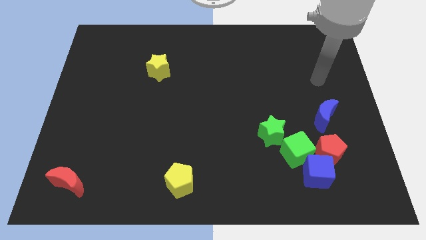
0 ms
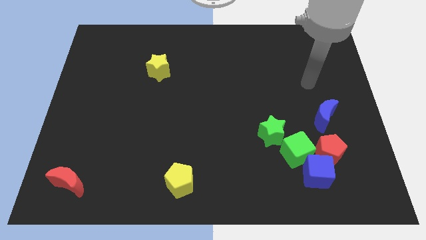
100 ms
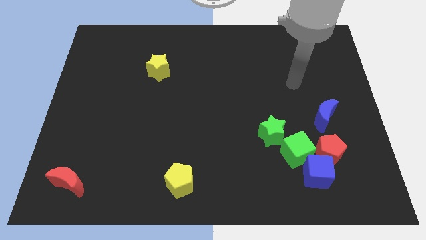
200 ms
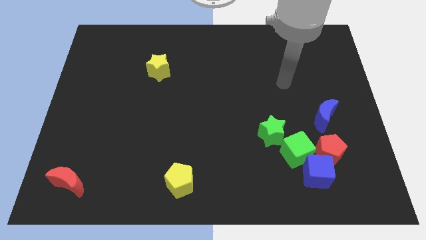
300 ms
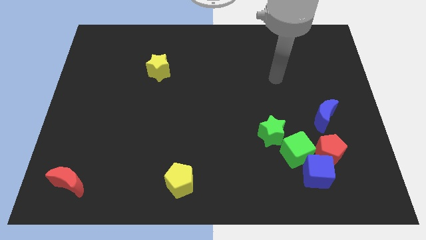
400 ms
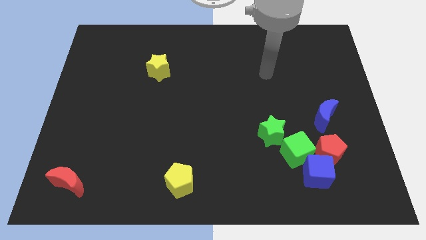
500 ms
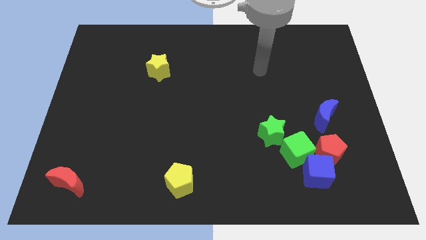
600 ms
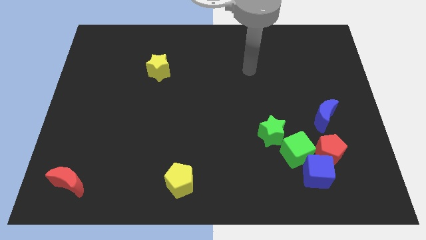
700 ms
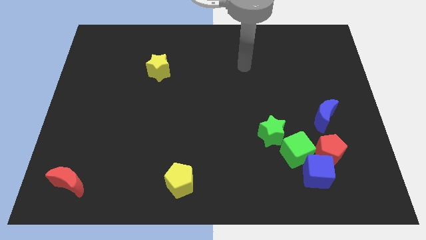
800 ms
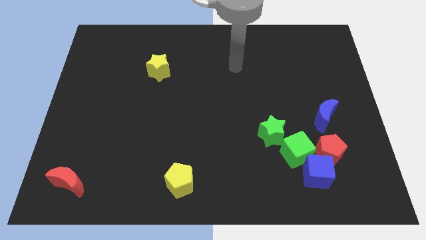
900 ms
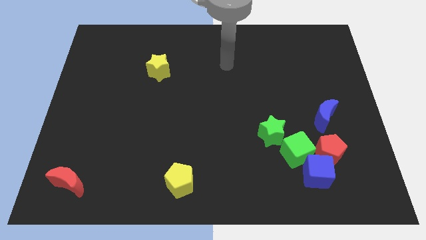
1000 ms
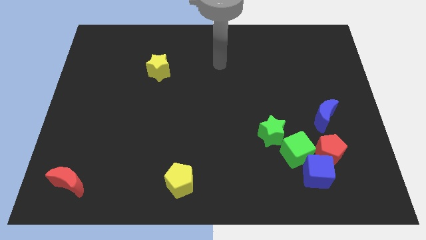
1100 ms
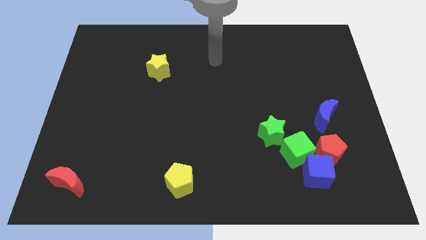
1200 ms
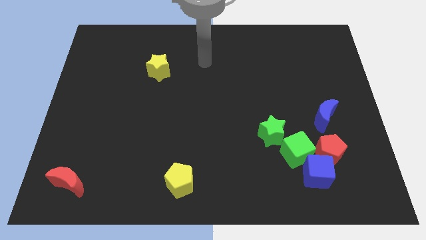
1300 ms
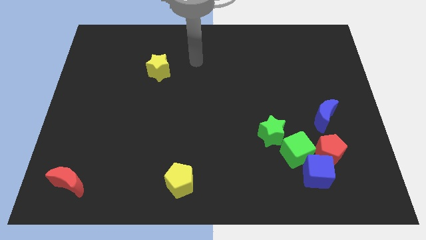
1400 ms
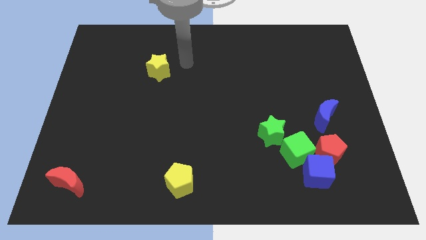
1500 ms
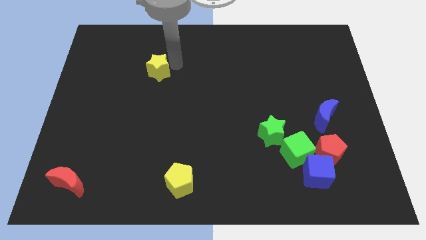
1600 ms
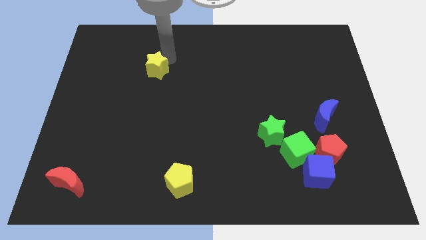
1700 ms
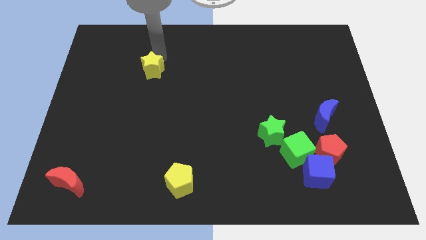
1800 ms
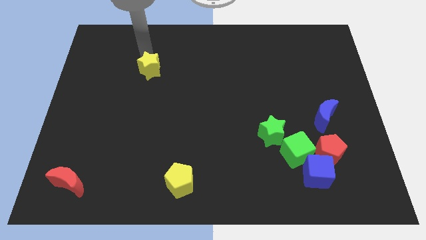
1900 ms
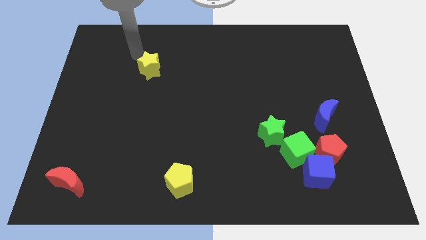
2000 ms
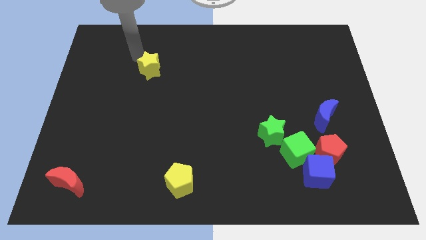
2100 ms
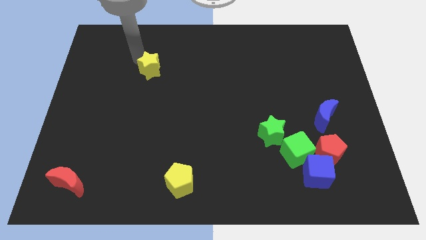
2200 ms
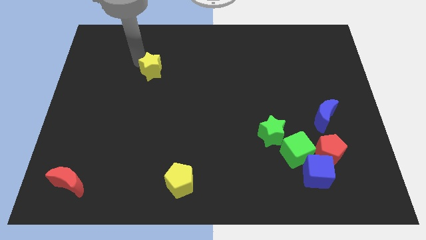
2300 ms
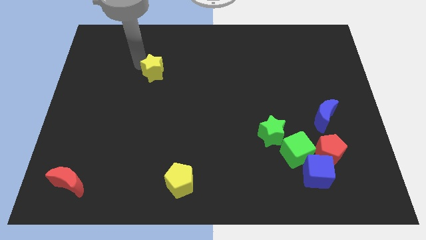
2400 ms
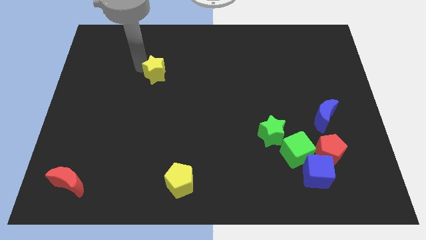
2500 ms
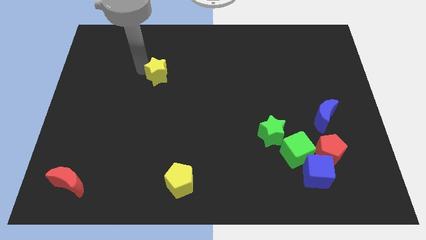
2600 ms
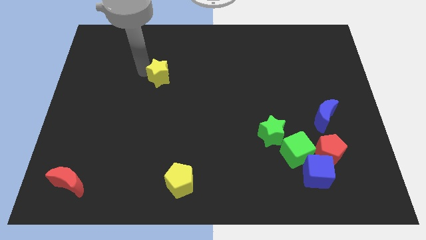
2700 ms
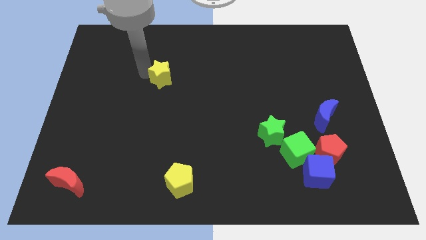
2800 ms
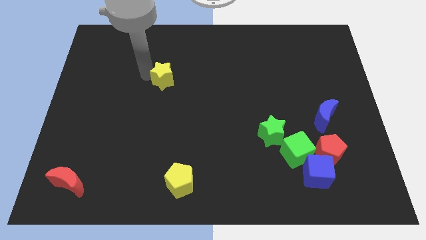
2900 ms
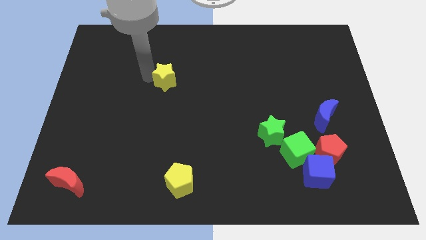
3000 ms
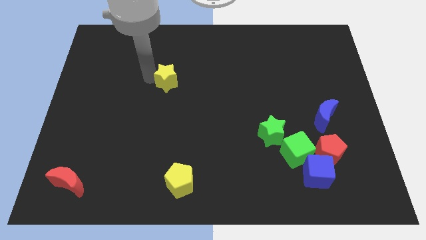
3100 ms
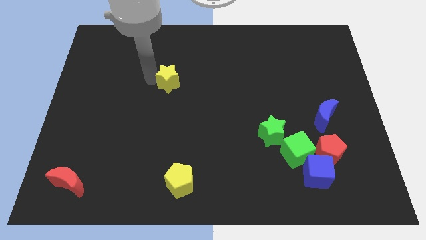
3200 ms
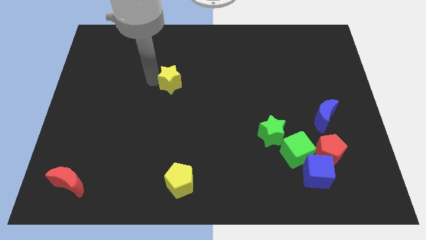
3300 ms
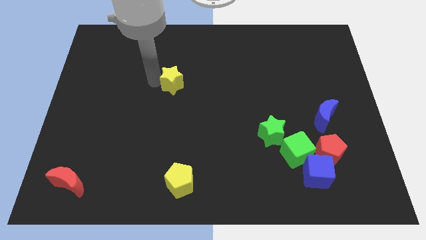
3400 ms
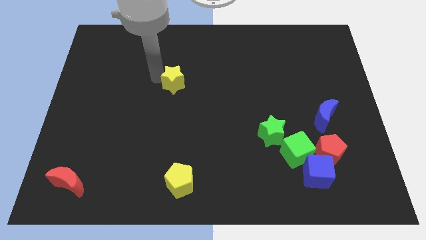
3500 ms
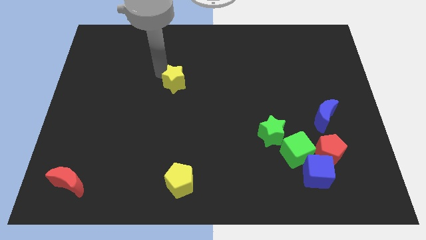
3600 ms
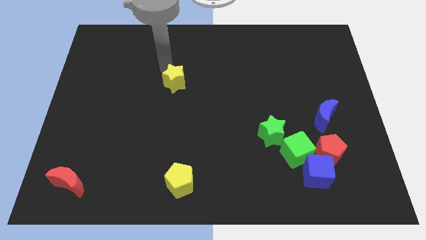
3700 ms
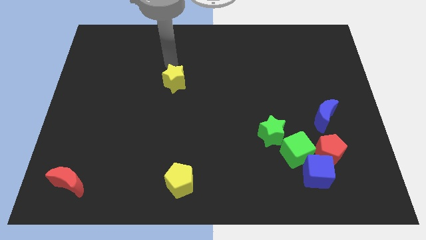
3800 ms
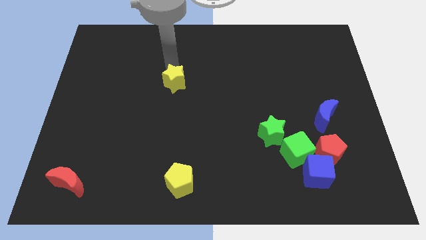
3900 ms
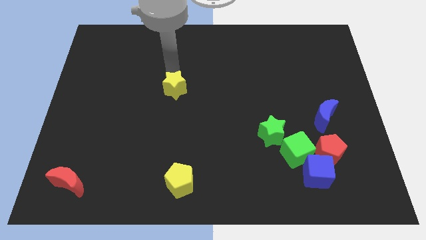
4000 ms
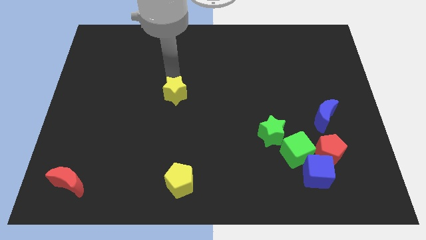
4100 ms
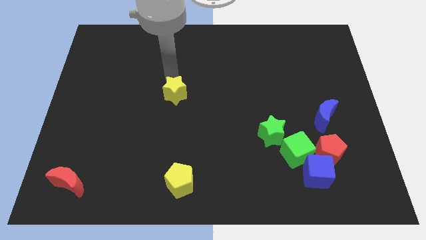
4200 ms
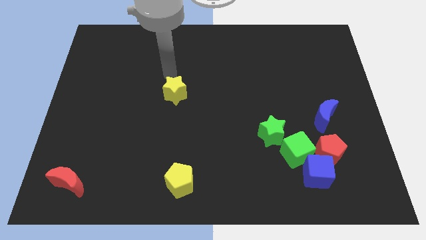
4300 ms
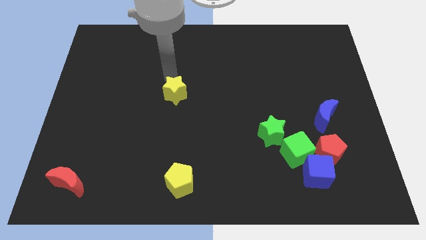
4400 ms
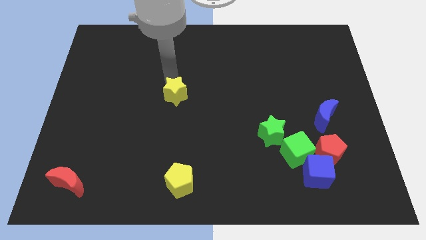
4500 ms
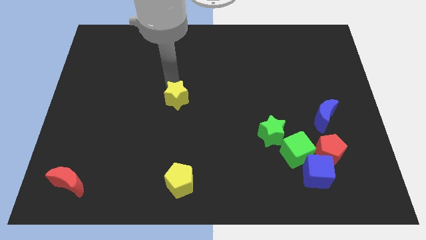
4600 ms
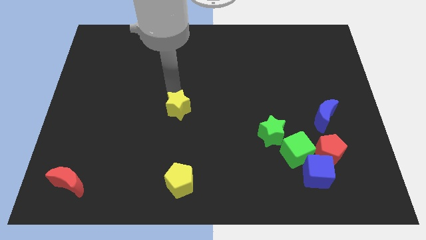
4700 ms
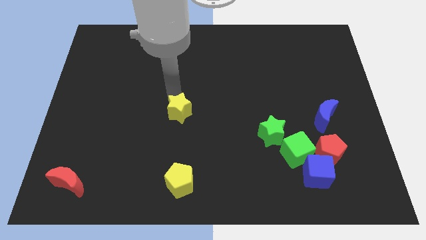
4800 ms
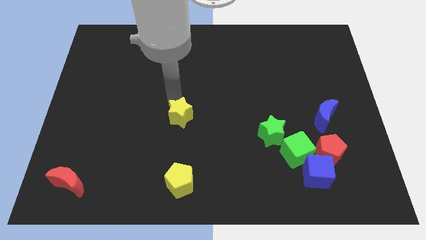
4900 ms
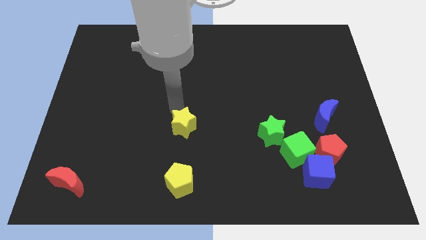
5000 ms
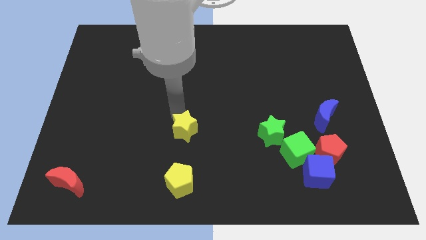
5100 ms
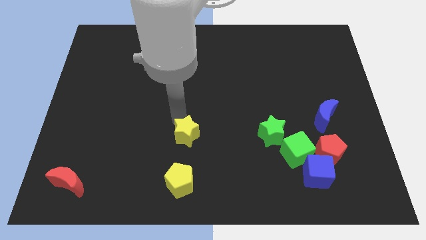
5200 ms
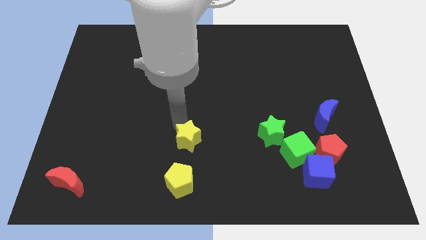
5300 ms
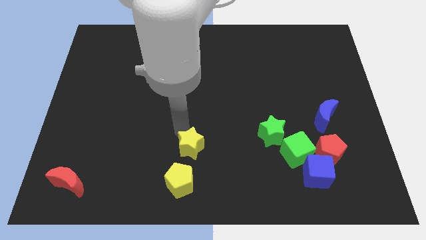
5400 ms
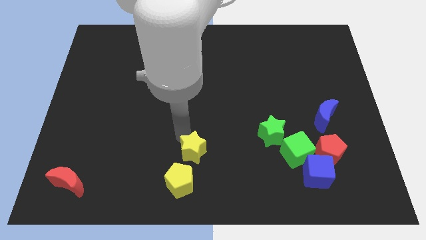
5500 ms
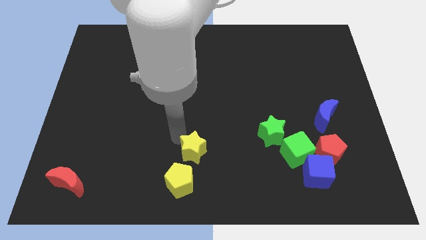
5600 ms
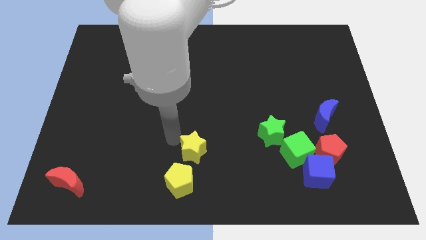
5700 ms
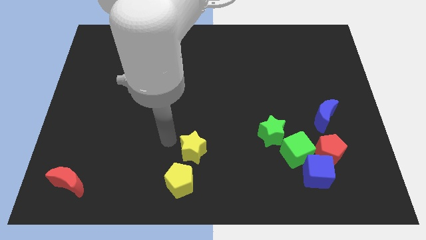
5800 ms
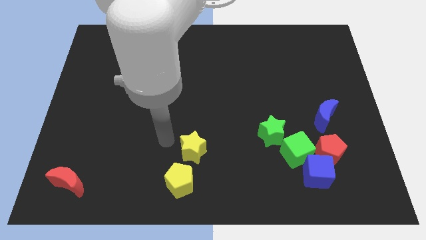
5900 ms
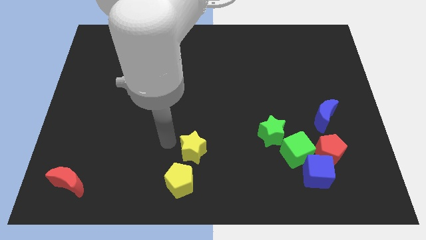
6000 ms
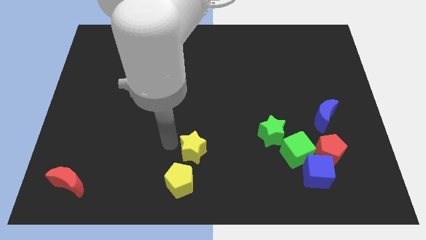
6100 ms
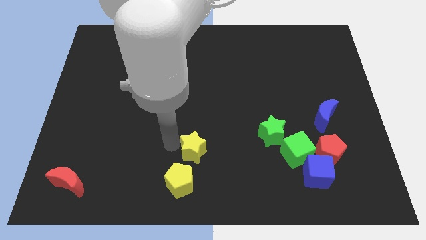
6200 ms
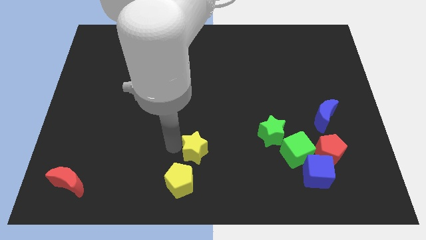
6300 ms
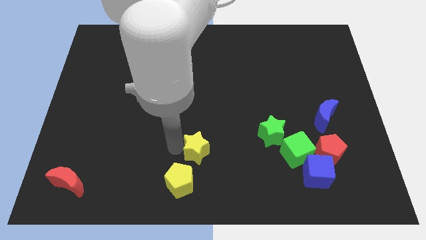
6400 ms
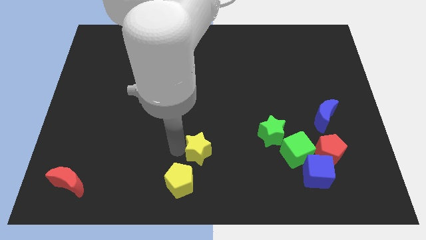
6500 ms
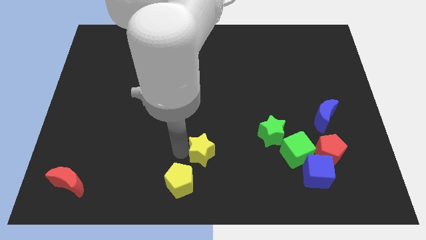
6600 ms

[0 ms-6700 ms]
put the yellow star to the bottom side

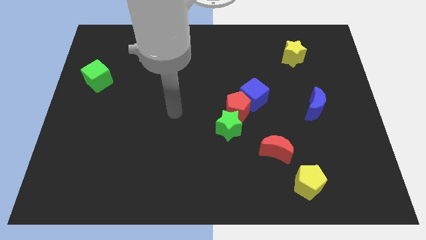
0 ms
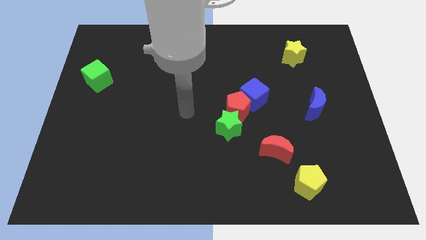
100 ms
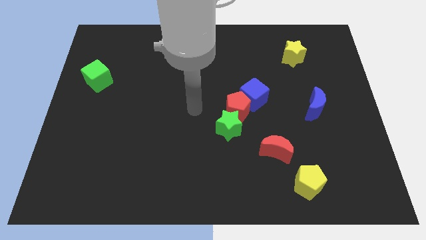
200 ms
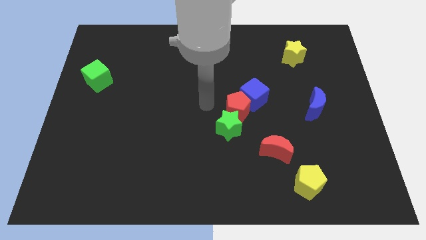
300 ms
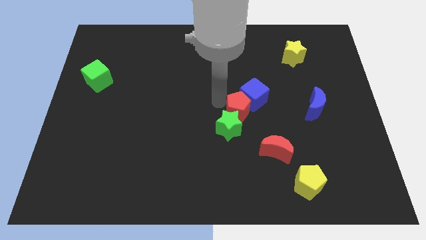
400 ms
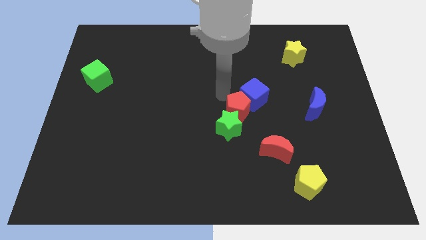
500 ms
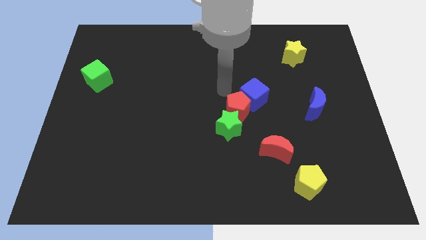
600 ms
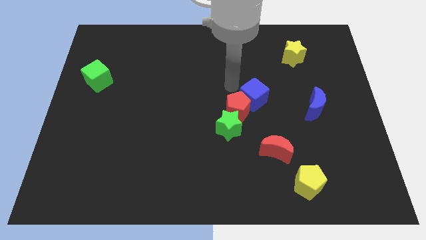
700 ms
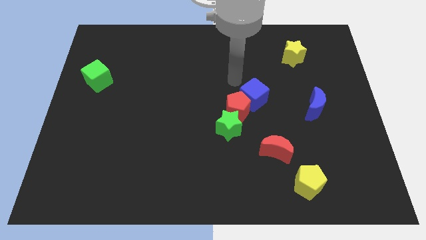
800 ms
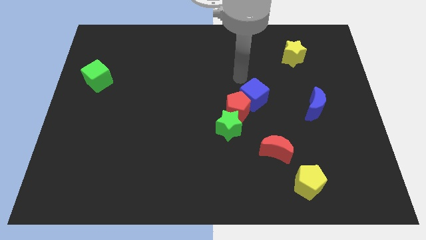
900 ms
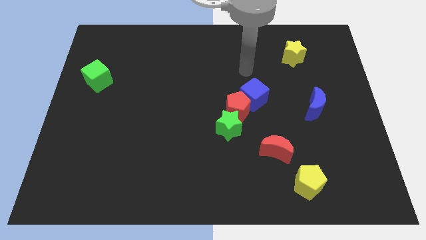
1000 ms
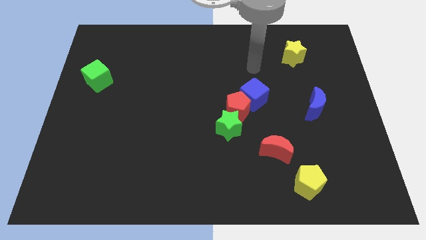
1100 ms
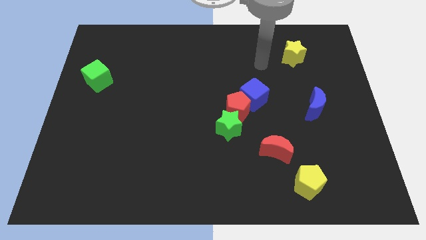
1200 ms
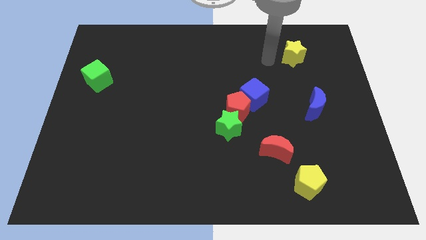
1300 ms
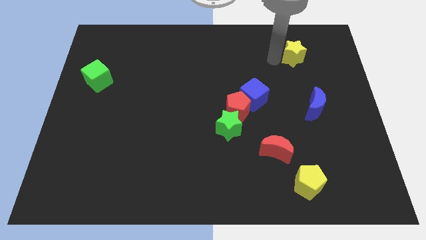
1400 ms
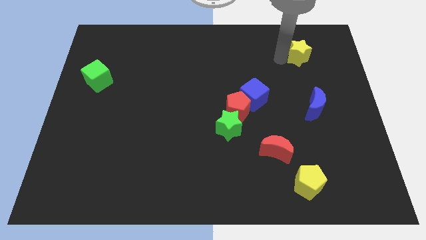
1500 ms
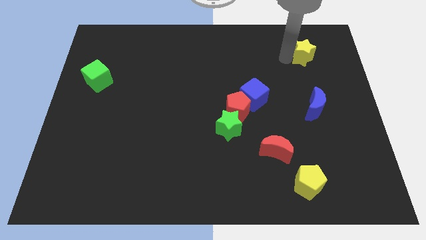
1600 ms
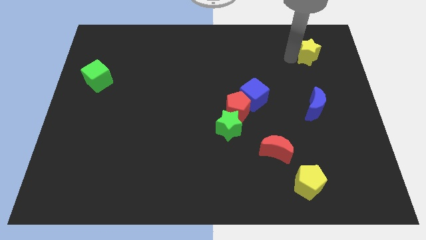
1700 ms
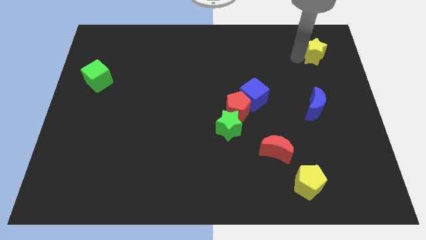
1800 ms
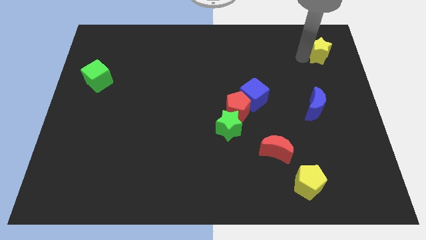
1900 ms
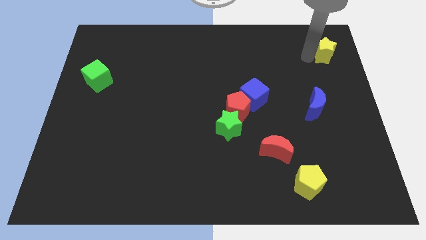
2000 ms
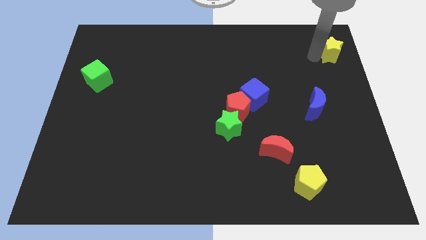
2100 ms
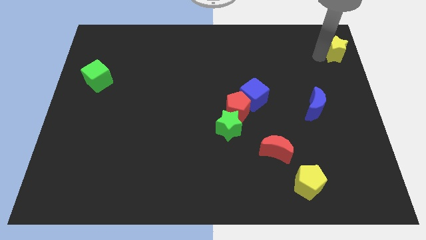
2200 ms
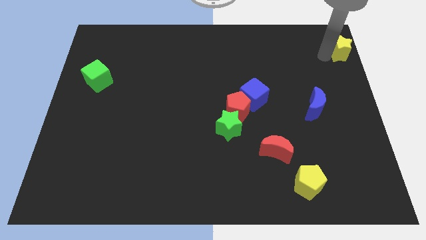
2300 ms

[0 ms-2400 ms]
slide the yellow star to the top right
